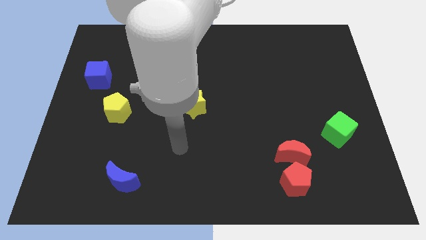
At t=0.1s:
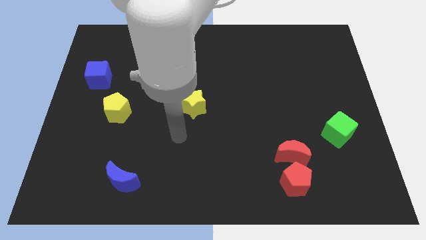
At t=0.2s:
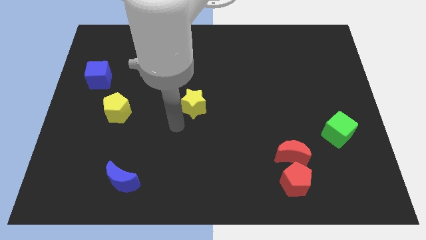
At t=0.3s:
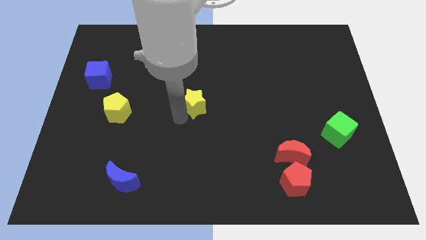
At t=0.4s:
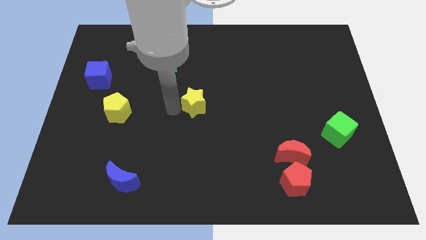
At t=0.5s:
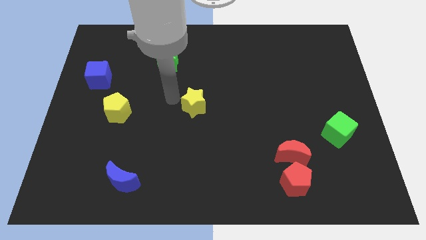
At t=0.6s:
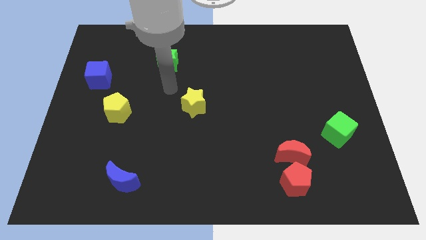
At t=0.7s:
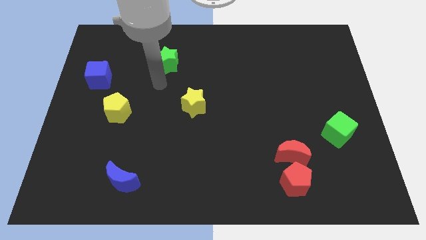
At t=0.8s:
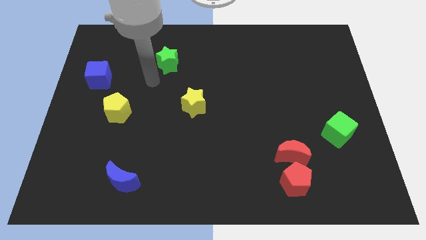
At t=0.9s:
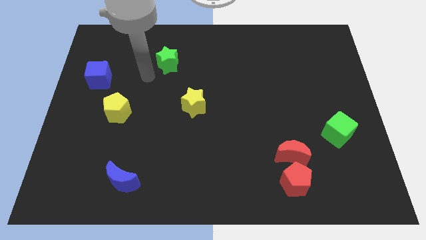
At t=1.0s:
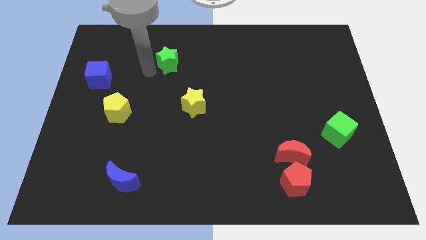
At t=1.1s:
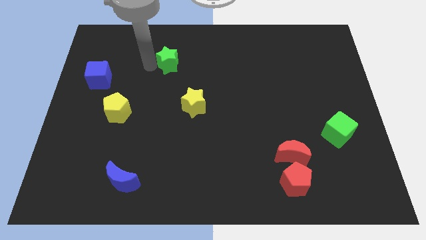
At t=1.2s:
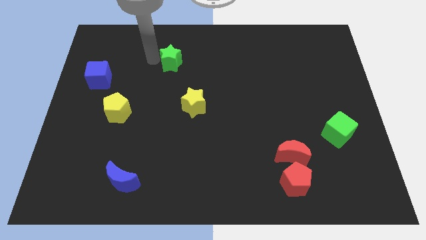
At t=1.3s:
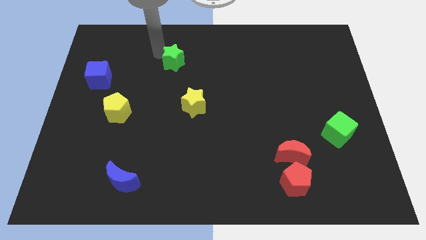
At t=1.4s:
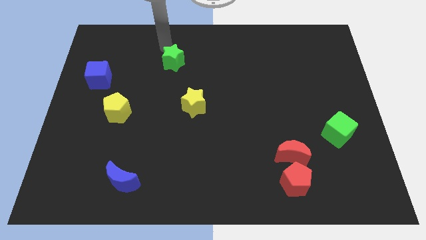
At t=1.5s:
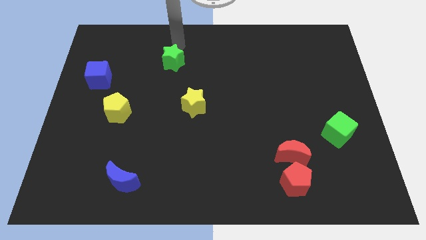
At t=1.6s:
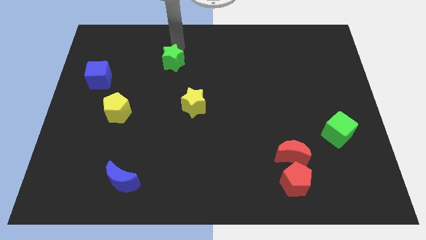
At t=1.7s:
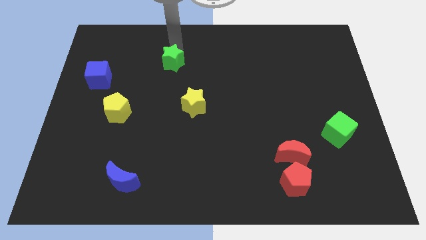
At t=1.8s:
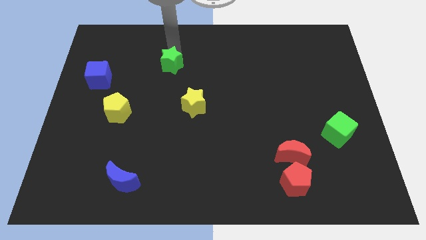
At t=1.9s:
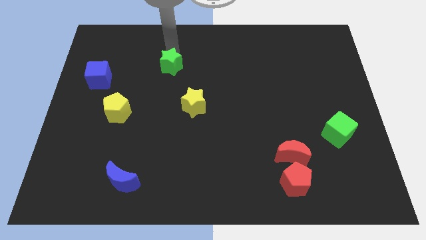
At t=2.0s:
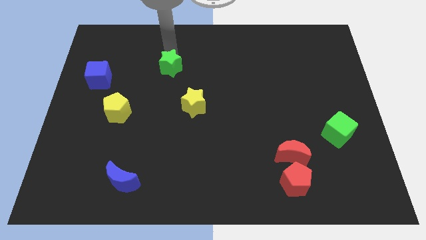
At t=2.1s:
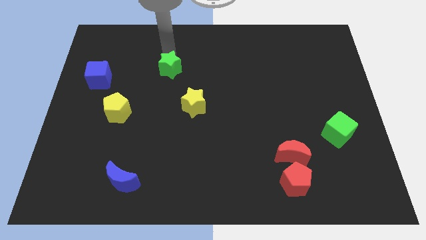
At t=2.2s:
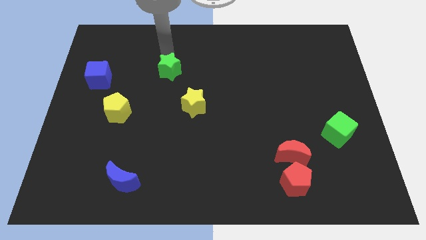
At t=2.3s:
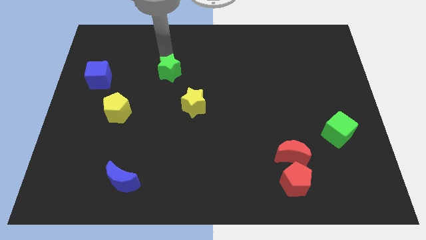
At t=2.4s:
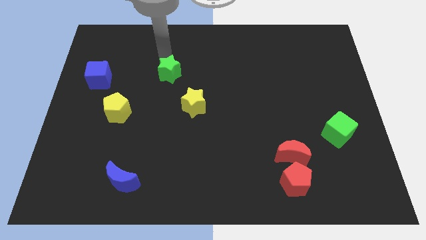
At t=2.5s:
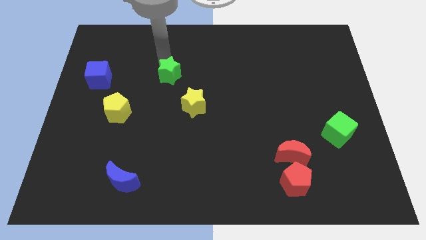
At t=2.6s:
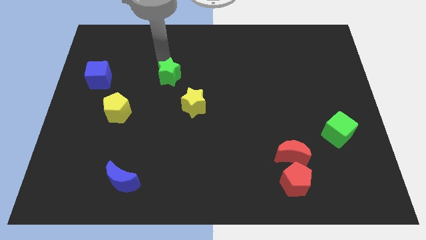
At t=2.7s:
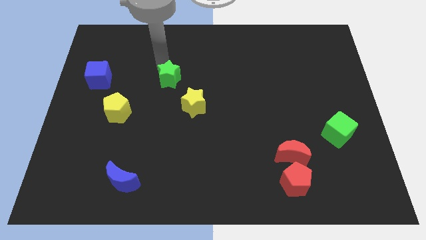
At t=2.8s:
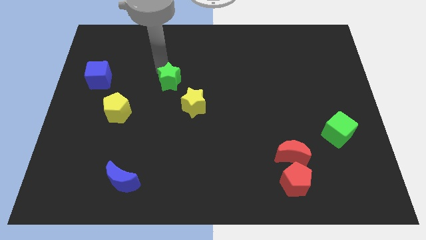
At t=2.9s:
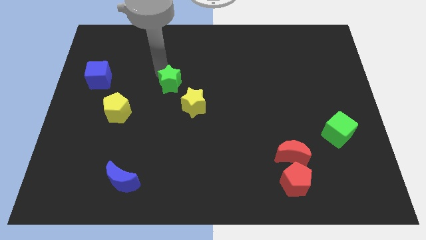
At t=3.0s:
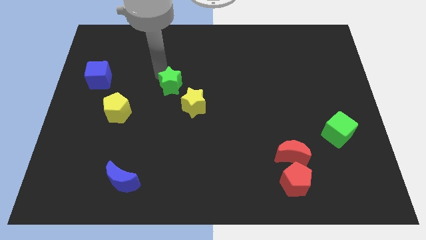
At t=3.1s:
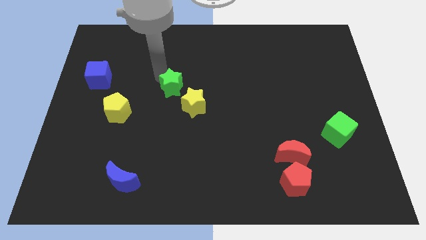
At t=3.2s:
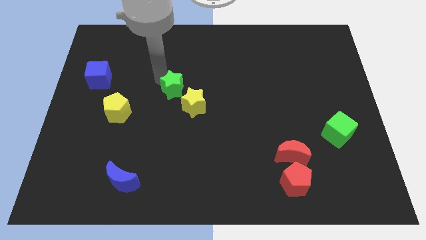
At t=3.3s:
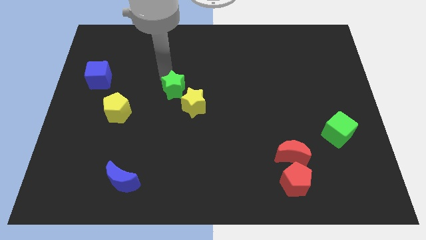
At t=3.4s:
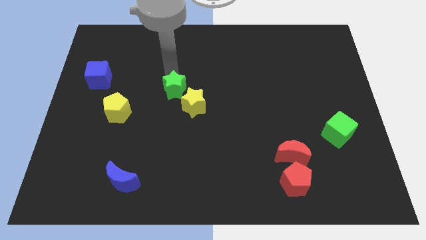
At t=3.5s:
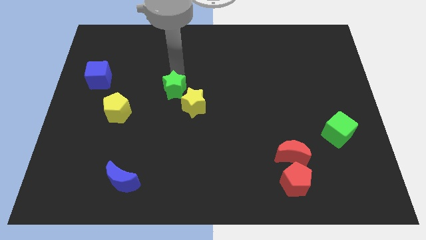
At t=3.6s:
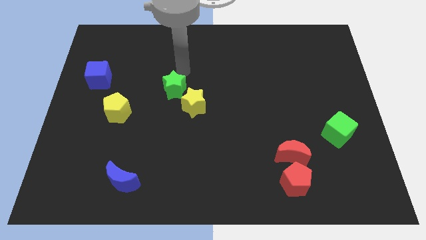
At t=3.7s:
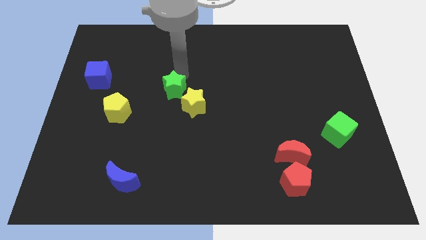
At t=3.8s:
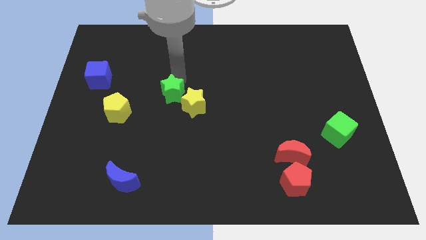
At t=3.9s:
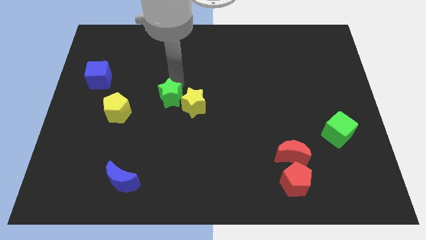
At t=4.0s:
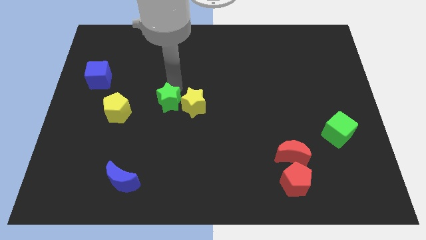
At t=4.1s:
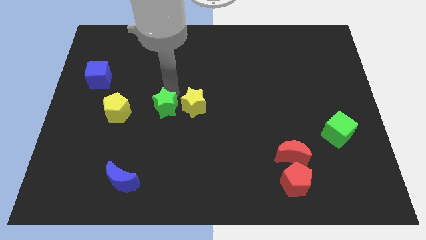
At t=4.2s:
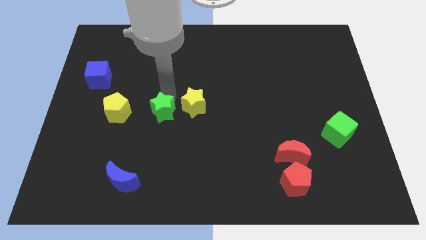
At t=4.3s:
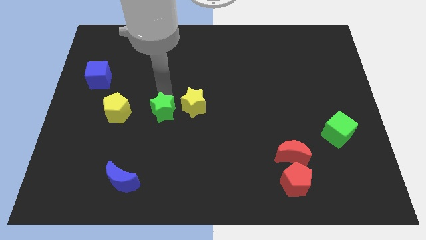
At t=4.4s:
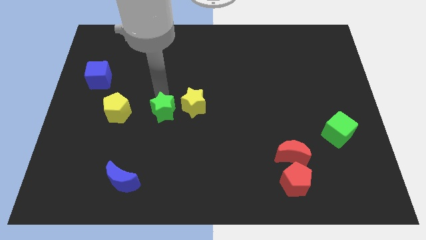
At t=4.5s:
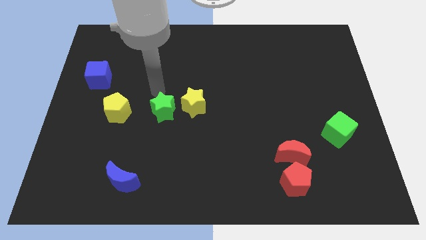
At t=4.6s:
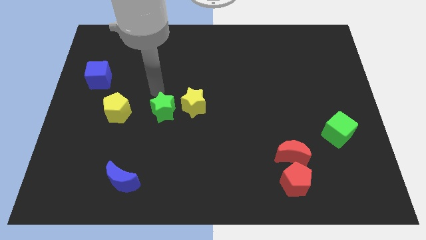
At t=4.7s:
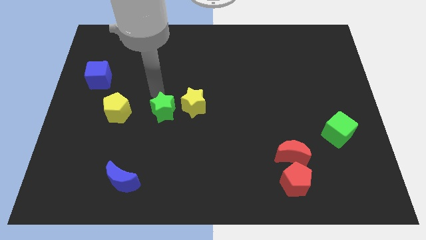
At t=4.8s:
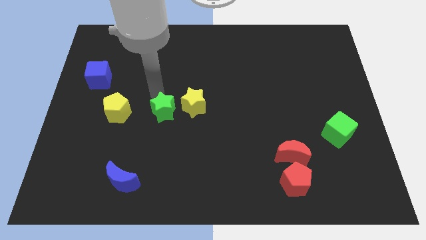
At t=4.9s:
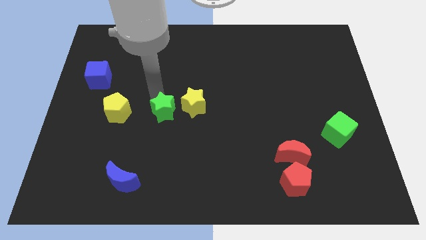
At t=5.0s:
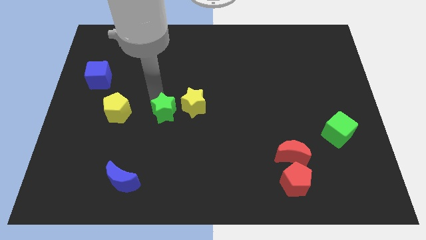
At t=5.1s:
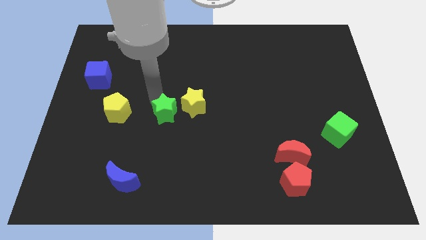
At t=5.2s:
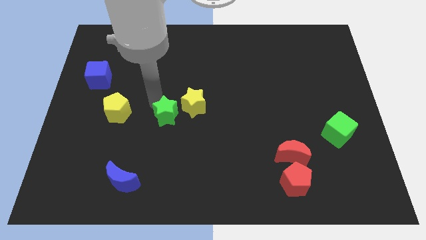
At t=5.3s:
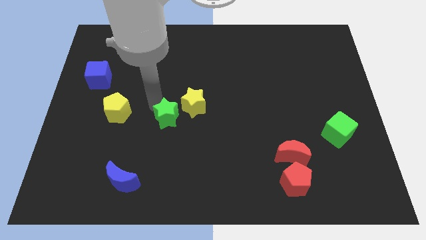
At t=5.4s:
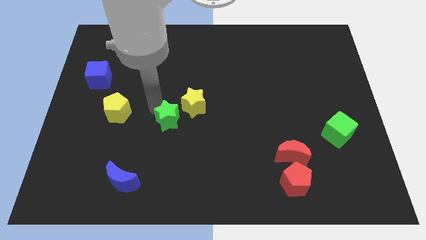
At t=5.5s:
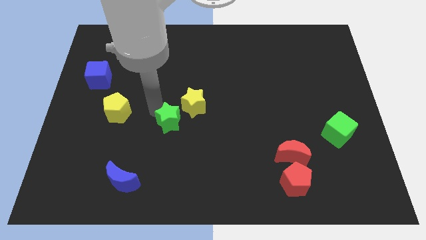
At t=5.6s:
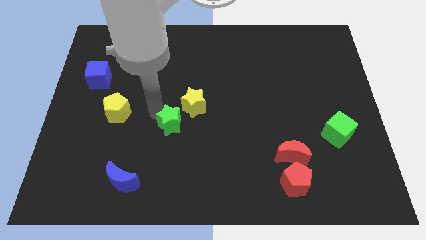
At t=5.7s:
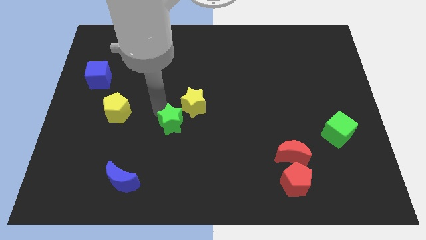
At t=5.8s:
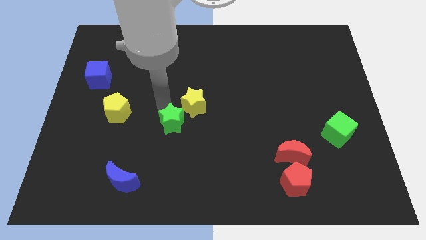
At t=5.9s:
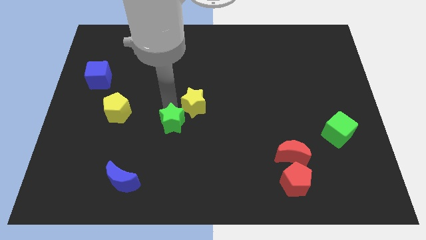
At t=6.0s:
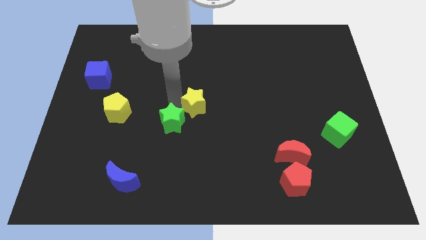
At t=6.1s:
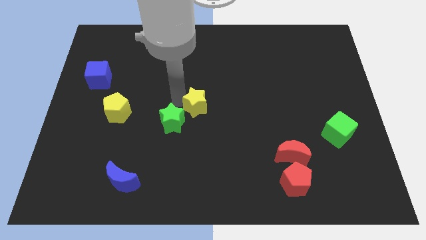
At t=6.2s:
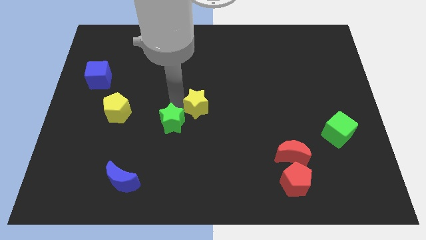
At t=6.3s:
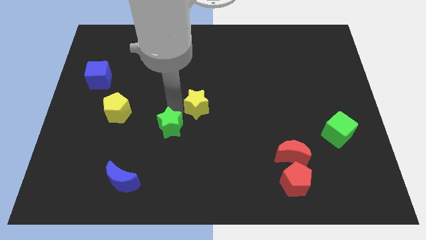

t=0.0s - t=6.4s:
push the green star down

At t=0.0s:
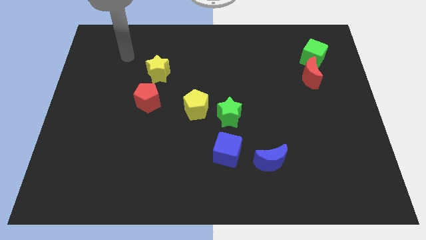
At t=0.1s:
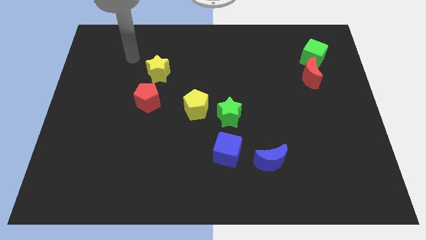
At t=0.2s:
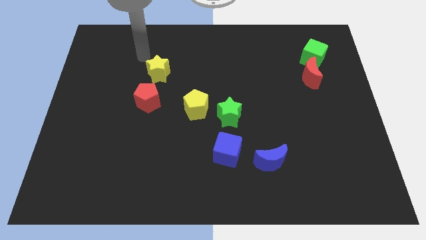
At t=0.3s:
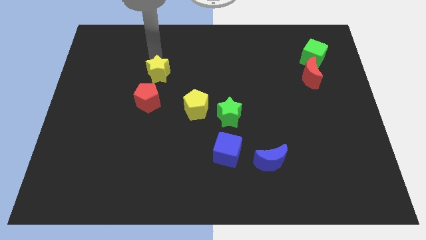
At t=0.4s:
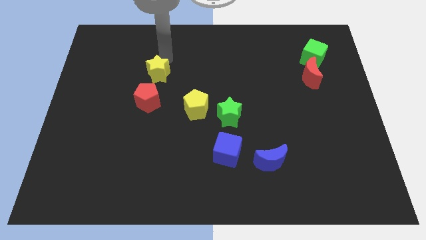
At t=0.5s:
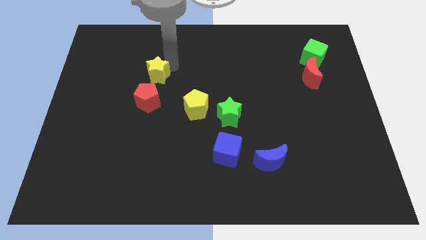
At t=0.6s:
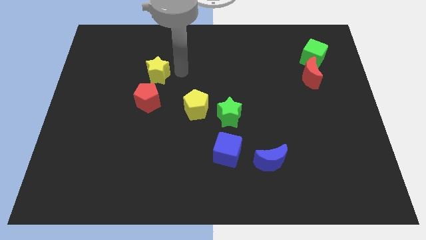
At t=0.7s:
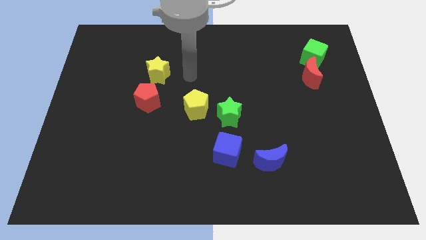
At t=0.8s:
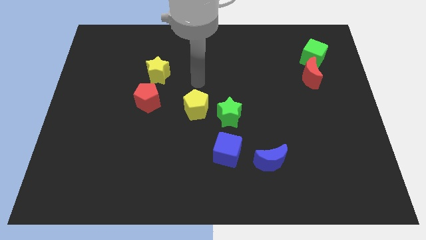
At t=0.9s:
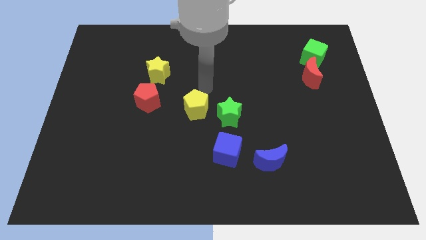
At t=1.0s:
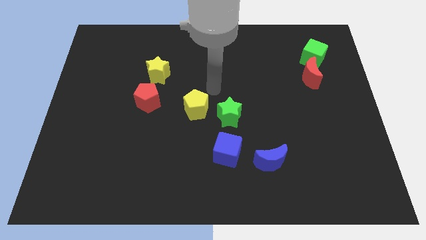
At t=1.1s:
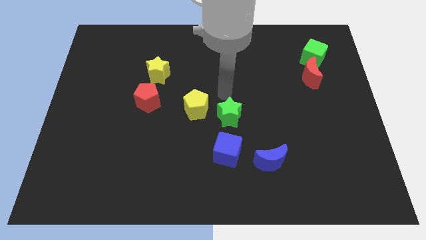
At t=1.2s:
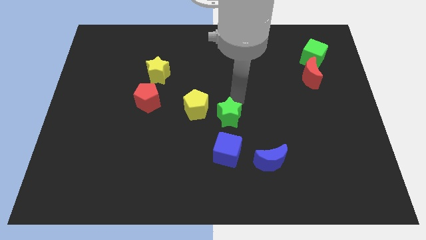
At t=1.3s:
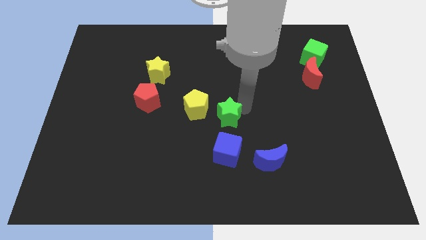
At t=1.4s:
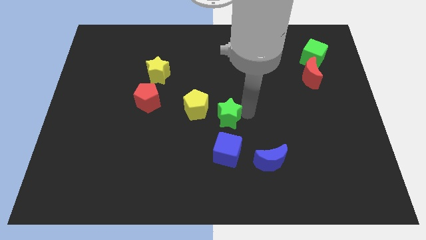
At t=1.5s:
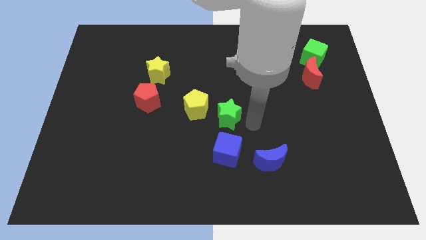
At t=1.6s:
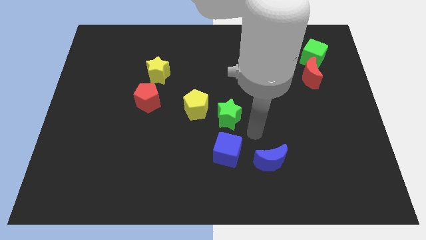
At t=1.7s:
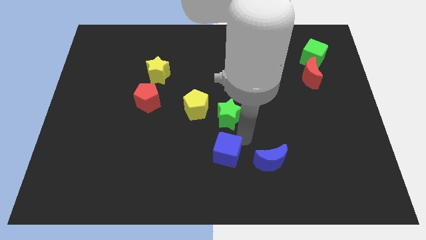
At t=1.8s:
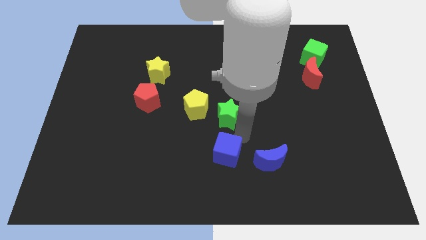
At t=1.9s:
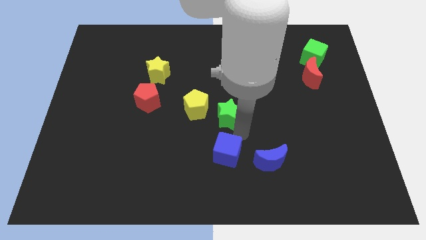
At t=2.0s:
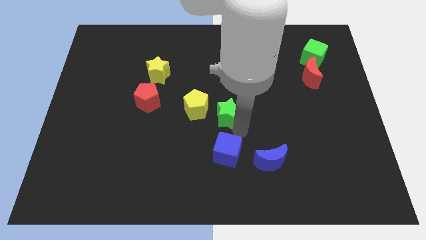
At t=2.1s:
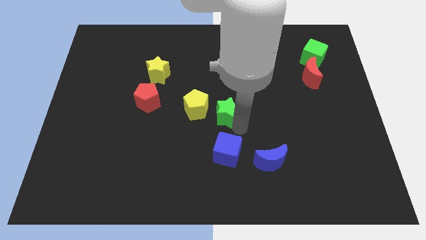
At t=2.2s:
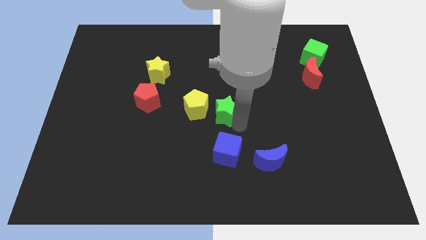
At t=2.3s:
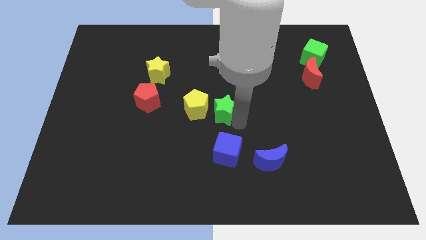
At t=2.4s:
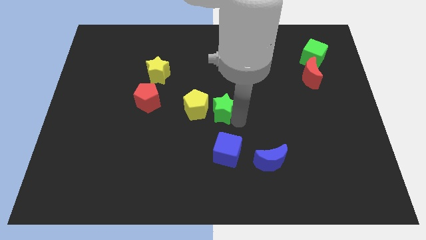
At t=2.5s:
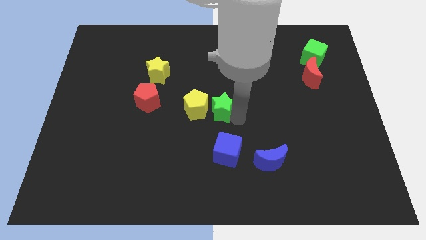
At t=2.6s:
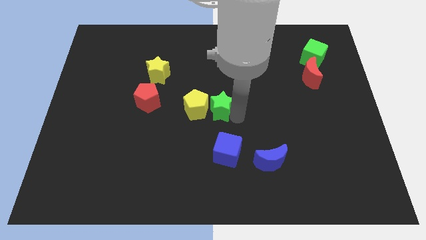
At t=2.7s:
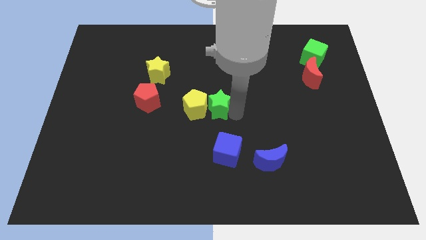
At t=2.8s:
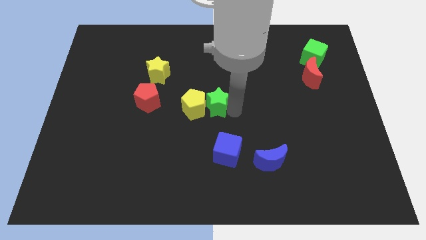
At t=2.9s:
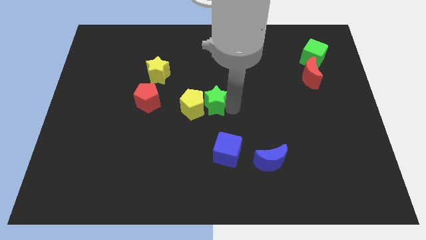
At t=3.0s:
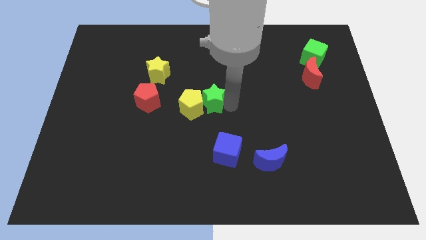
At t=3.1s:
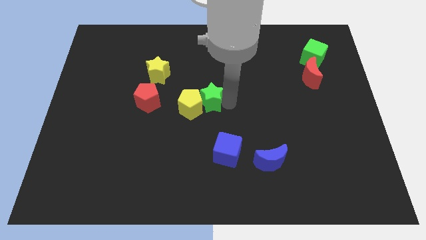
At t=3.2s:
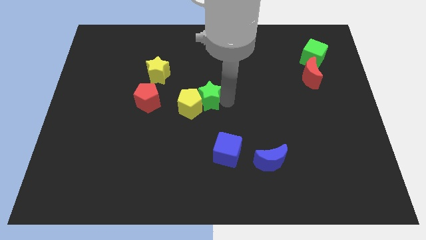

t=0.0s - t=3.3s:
move the green star a little bit diagonally up and left
